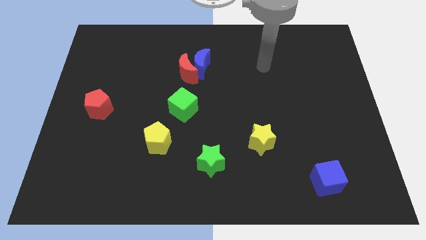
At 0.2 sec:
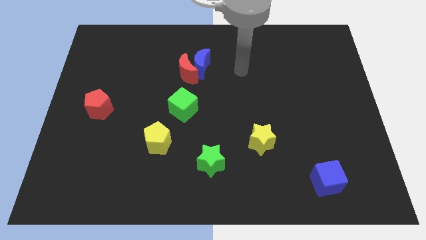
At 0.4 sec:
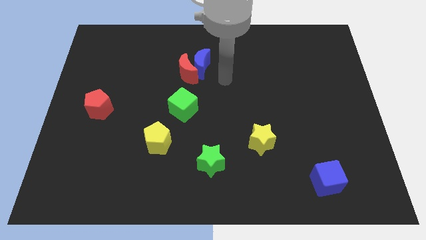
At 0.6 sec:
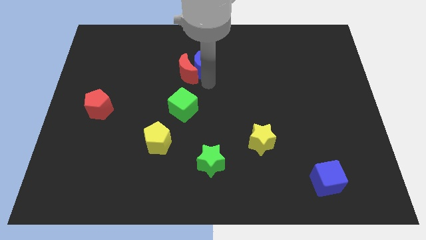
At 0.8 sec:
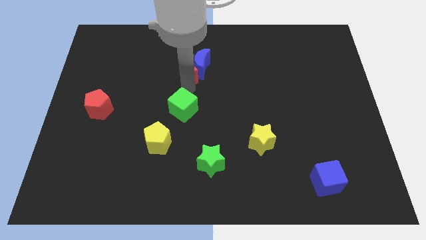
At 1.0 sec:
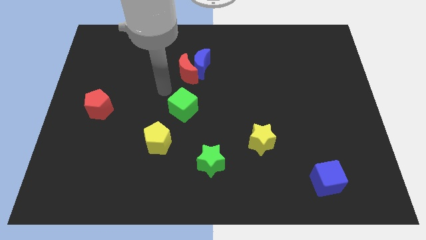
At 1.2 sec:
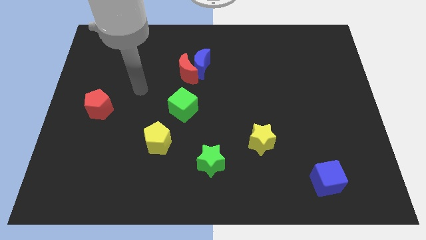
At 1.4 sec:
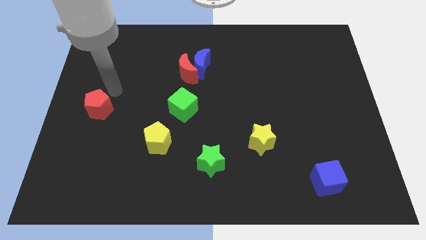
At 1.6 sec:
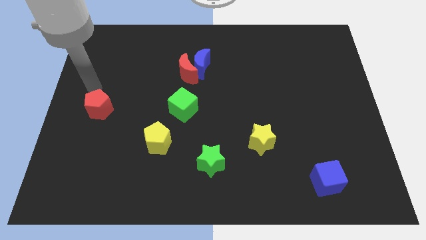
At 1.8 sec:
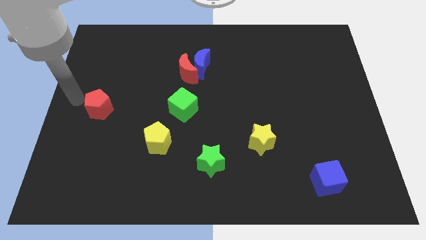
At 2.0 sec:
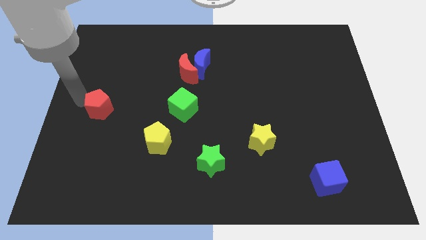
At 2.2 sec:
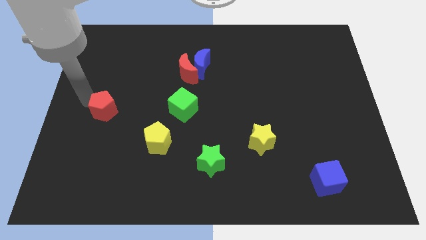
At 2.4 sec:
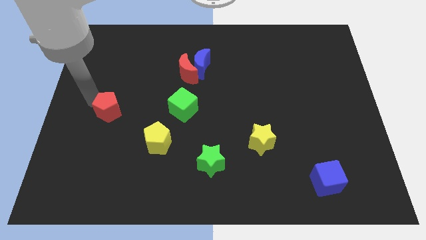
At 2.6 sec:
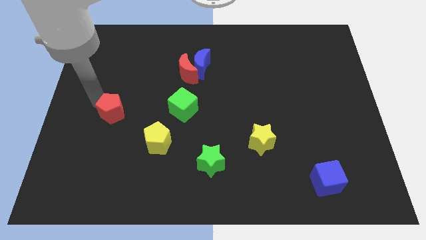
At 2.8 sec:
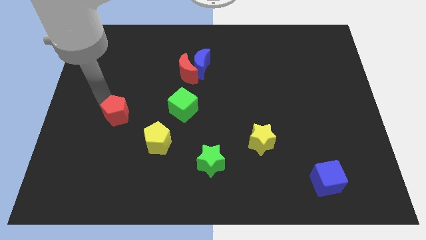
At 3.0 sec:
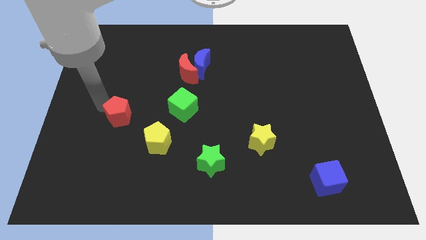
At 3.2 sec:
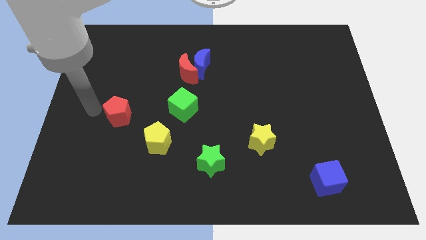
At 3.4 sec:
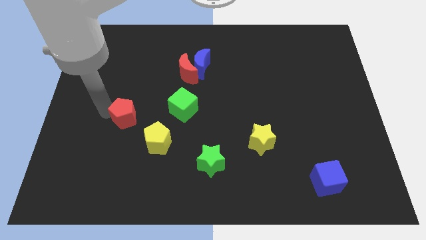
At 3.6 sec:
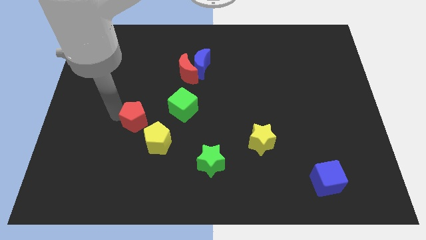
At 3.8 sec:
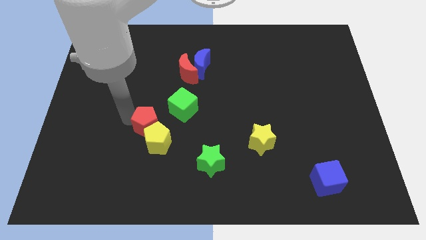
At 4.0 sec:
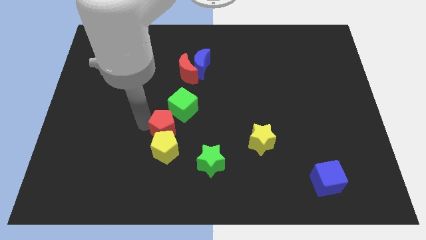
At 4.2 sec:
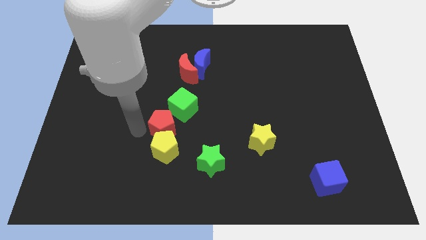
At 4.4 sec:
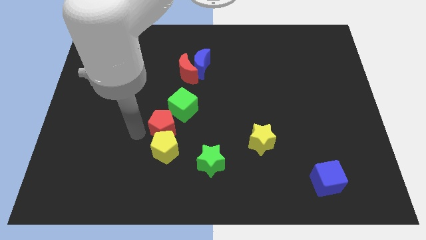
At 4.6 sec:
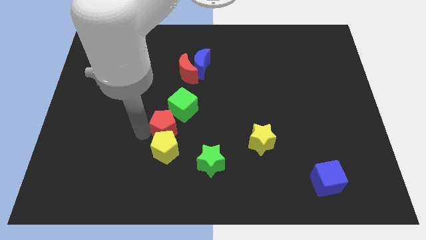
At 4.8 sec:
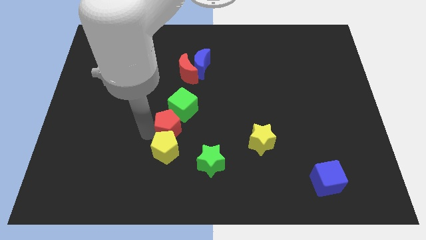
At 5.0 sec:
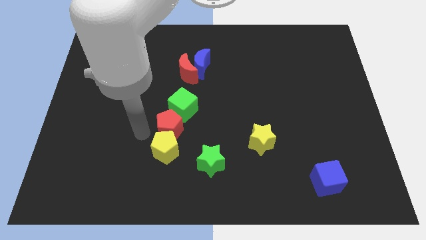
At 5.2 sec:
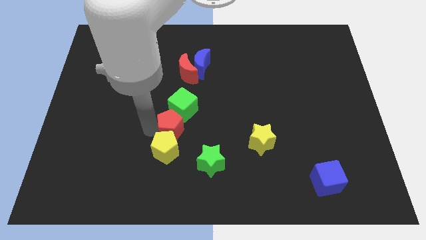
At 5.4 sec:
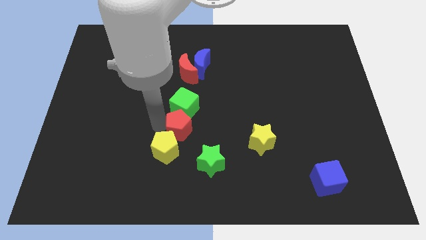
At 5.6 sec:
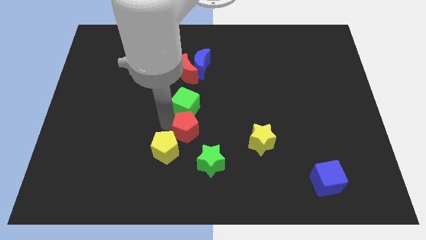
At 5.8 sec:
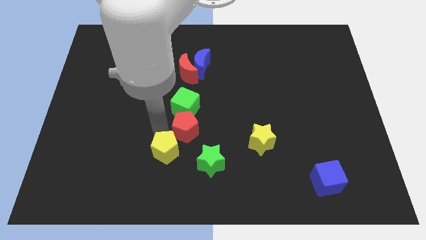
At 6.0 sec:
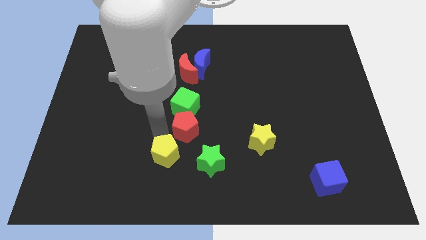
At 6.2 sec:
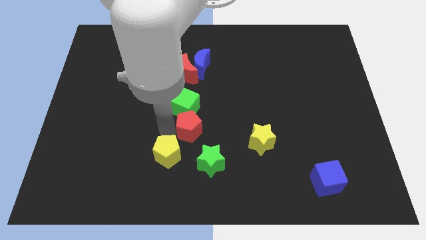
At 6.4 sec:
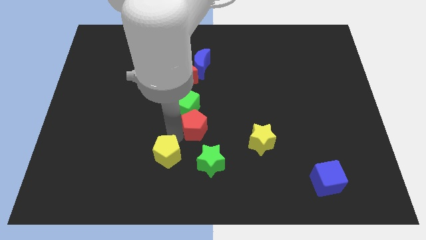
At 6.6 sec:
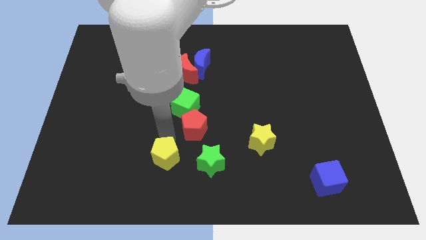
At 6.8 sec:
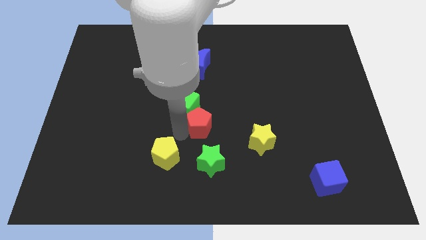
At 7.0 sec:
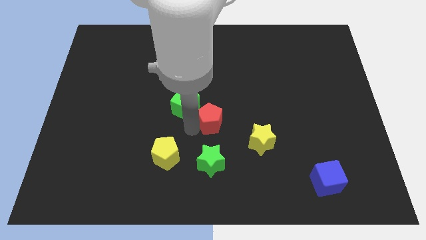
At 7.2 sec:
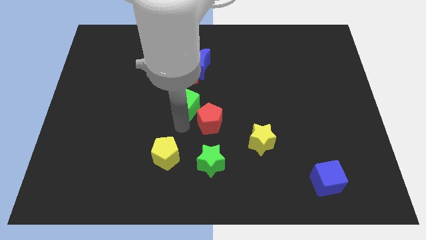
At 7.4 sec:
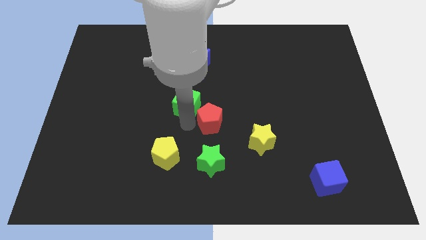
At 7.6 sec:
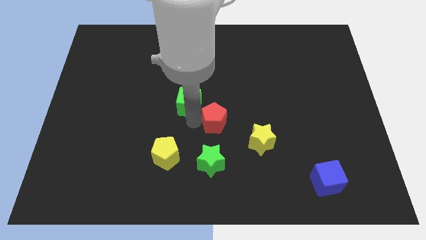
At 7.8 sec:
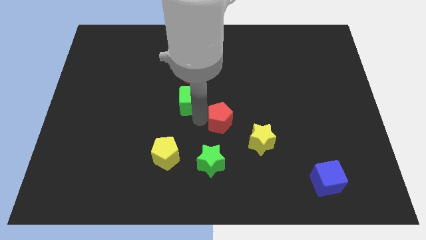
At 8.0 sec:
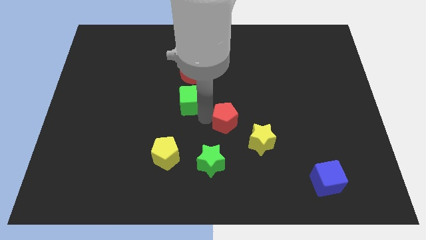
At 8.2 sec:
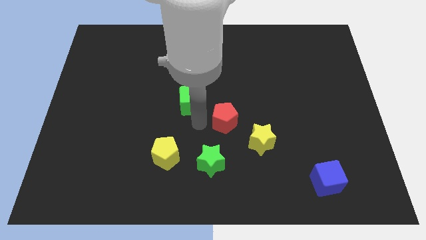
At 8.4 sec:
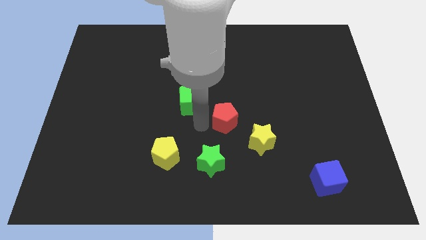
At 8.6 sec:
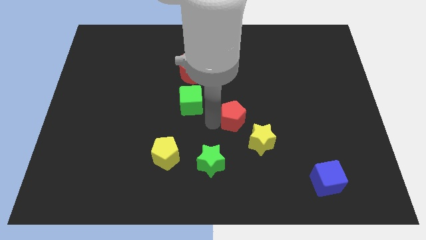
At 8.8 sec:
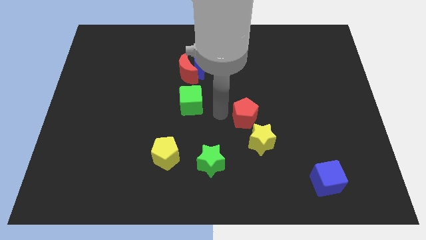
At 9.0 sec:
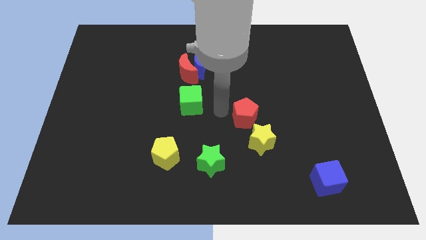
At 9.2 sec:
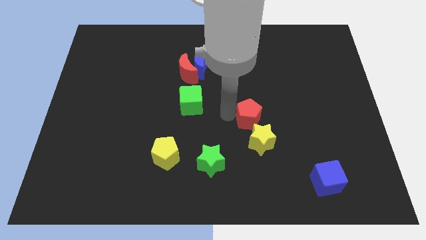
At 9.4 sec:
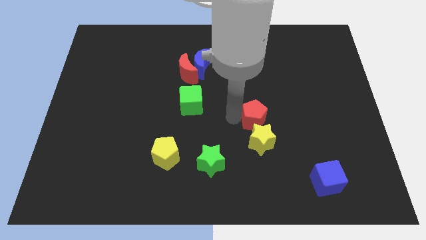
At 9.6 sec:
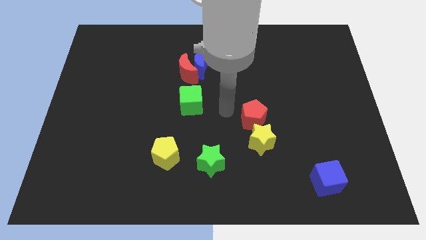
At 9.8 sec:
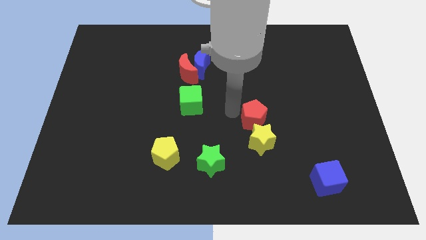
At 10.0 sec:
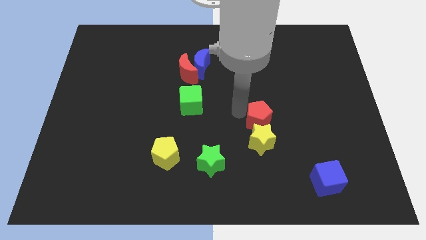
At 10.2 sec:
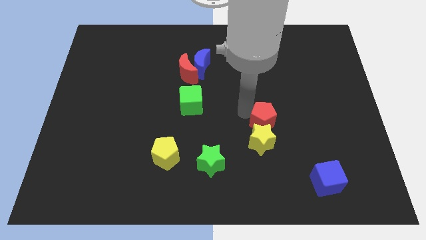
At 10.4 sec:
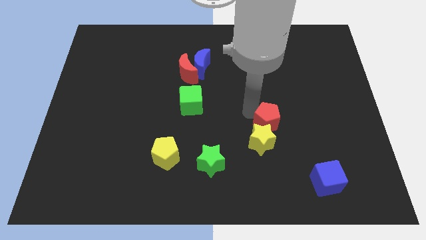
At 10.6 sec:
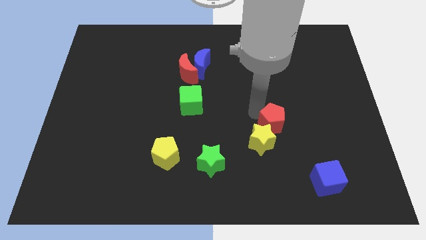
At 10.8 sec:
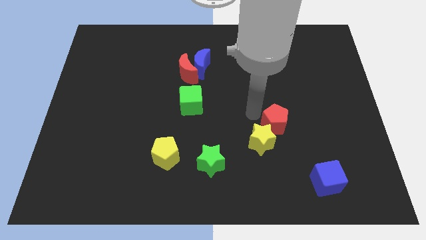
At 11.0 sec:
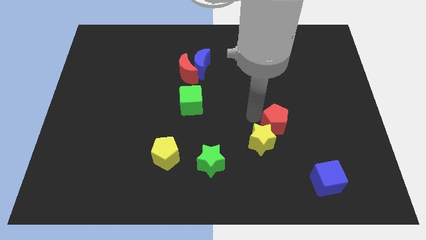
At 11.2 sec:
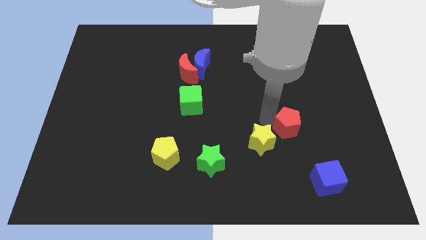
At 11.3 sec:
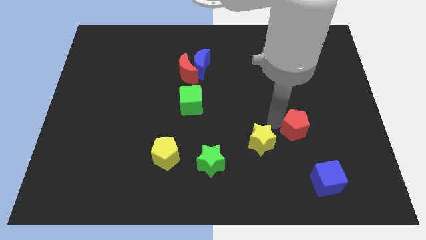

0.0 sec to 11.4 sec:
push the red pentagon to the top side of the blue cube

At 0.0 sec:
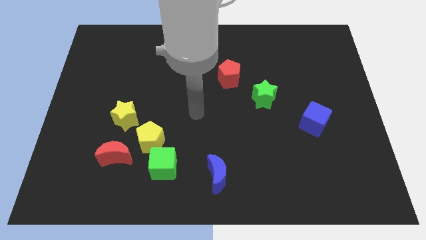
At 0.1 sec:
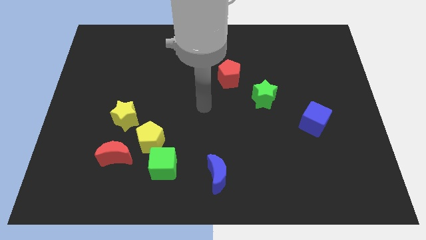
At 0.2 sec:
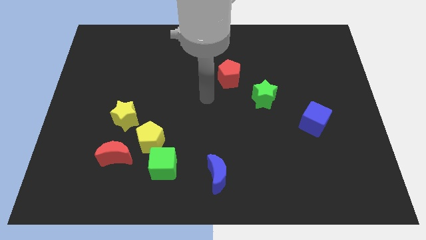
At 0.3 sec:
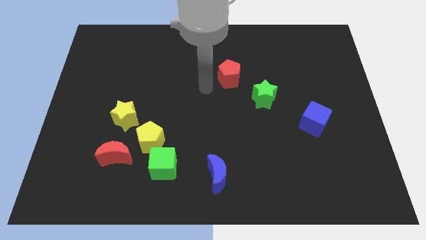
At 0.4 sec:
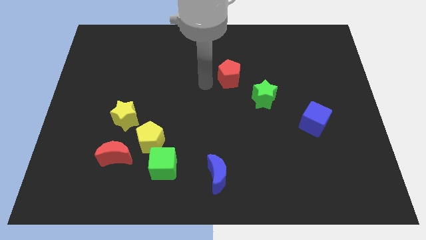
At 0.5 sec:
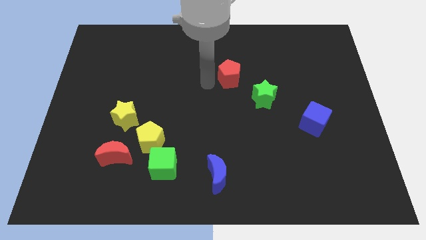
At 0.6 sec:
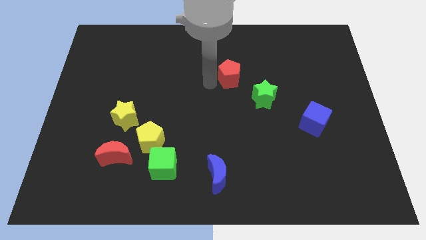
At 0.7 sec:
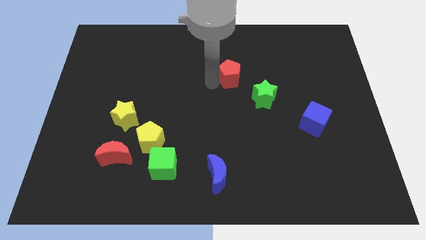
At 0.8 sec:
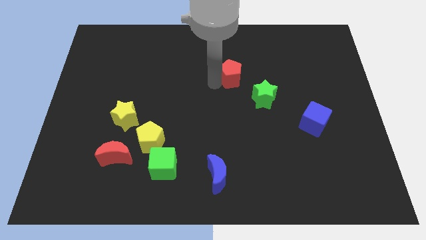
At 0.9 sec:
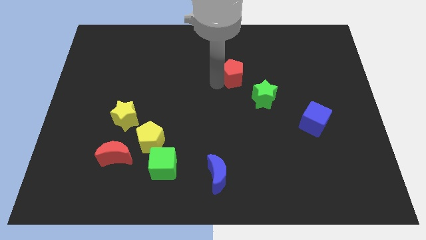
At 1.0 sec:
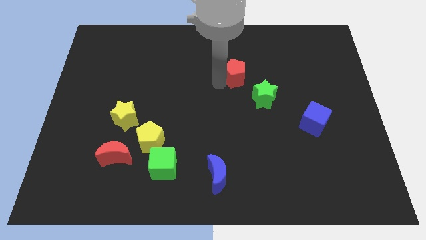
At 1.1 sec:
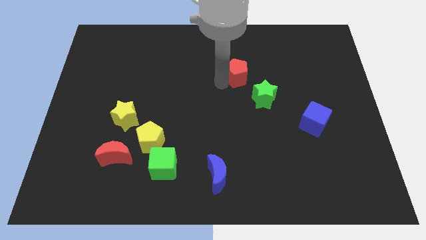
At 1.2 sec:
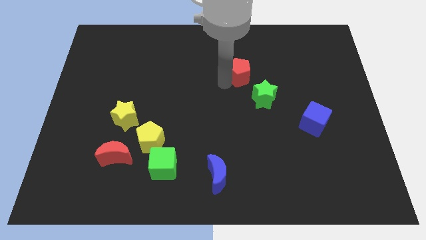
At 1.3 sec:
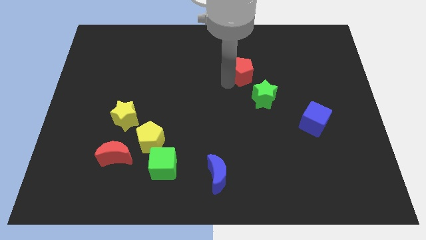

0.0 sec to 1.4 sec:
move the red pentagon above the green star

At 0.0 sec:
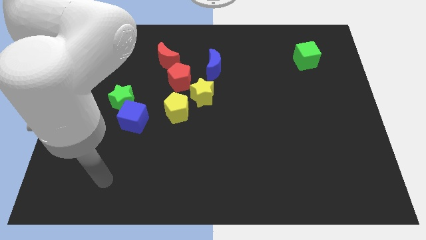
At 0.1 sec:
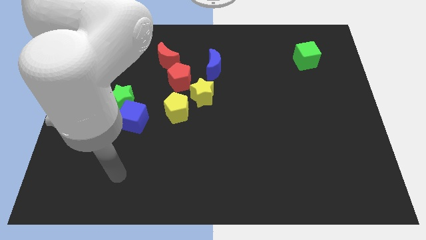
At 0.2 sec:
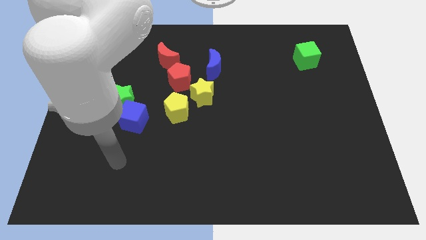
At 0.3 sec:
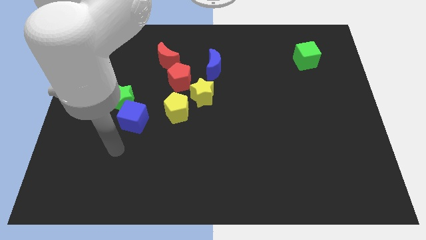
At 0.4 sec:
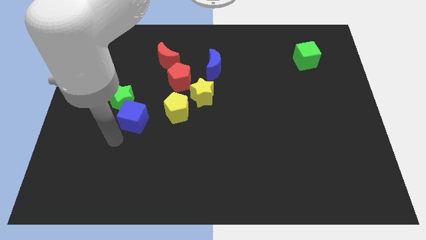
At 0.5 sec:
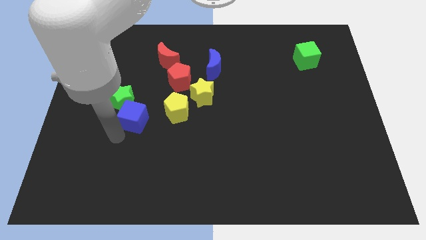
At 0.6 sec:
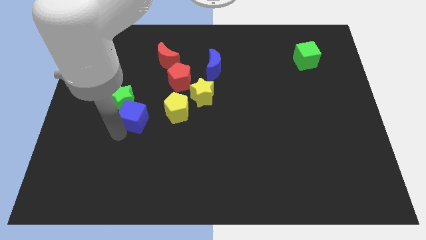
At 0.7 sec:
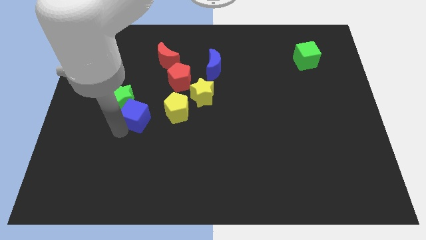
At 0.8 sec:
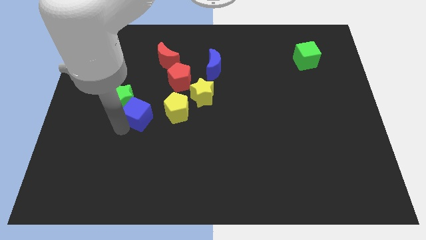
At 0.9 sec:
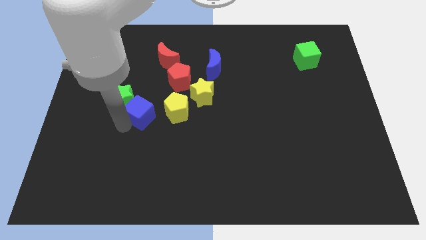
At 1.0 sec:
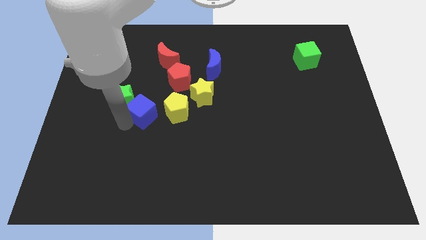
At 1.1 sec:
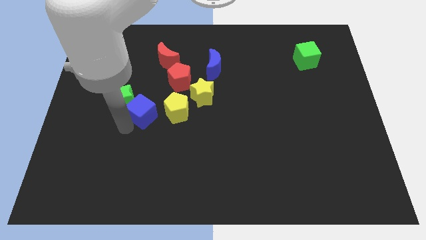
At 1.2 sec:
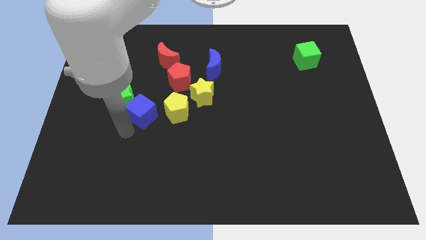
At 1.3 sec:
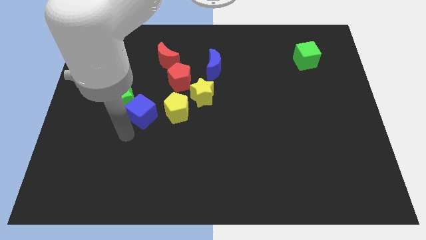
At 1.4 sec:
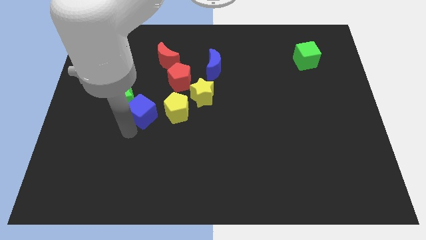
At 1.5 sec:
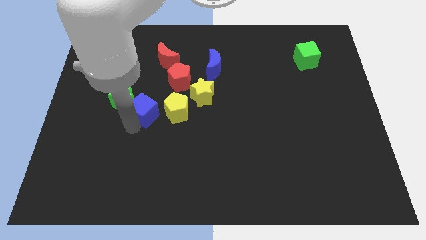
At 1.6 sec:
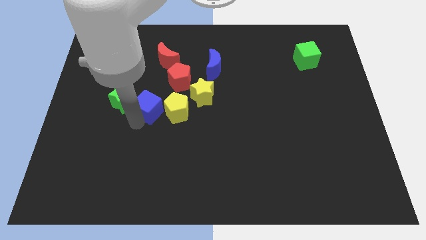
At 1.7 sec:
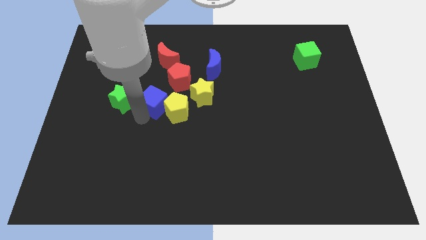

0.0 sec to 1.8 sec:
move the blue cube to the bottom of the red moon
